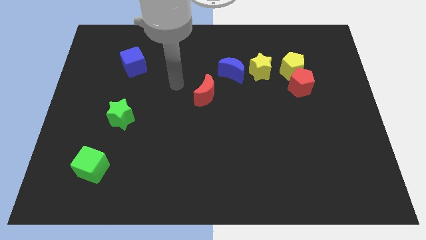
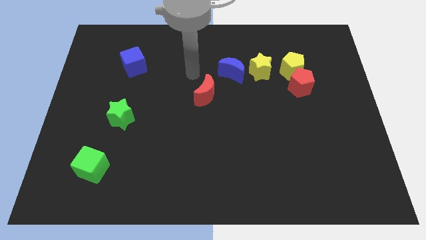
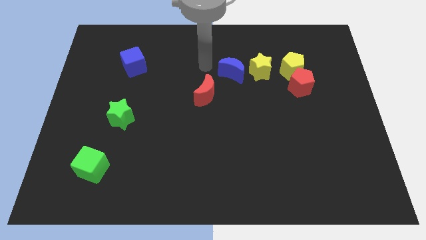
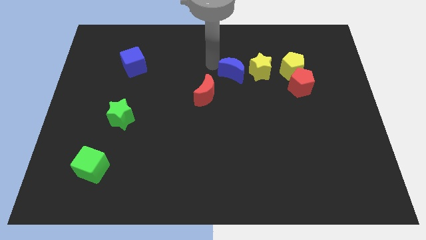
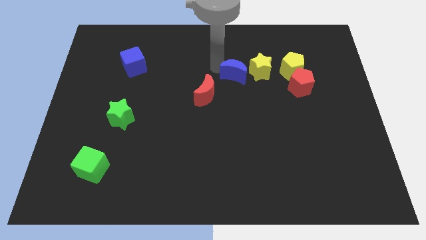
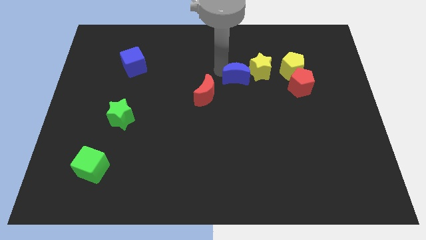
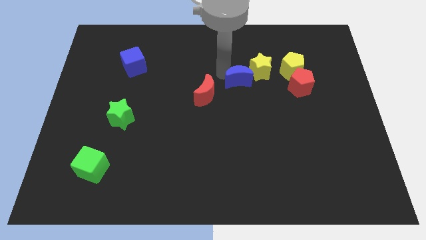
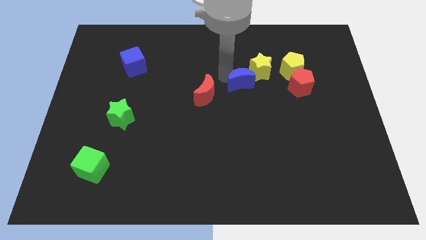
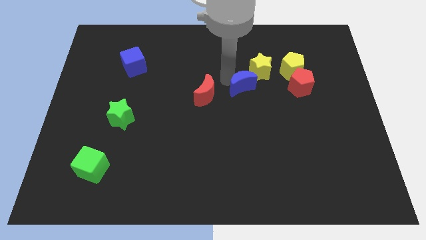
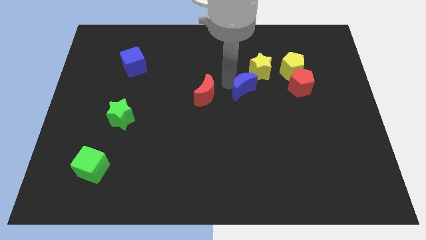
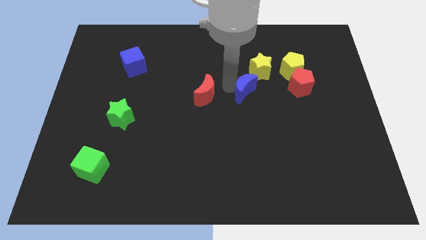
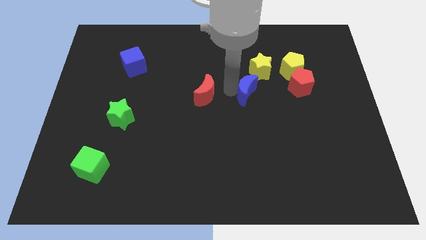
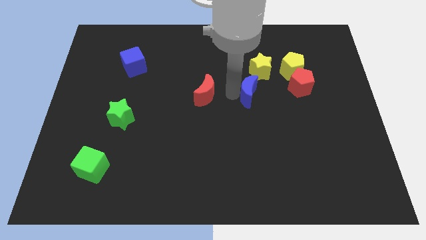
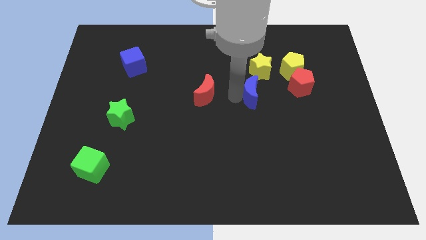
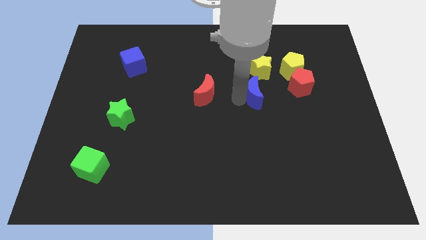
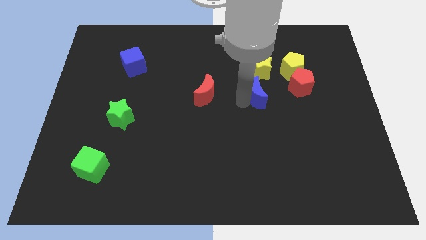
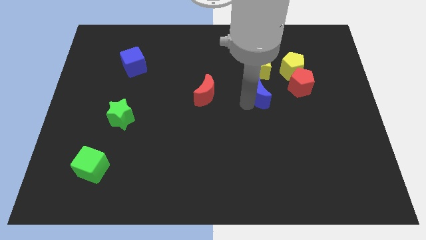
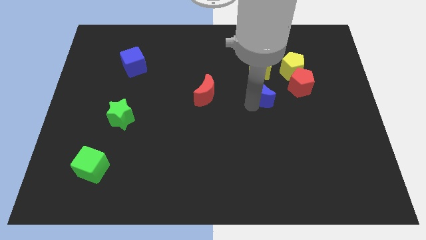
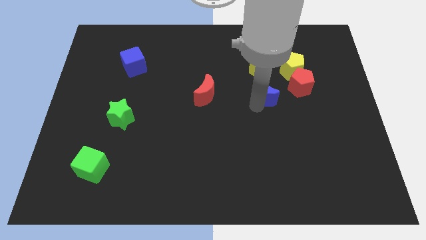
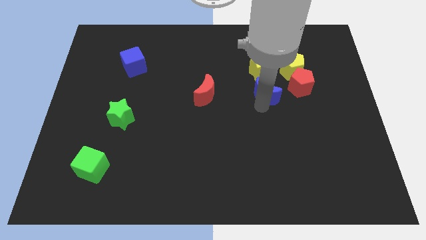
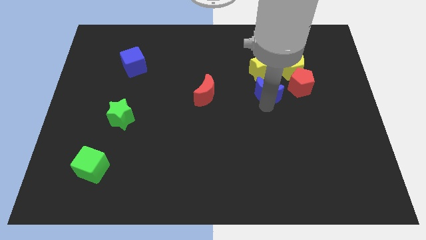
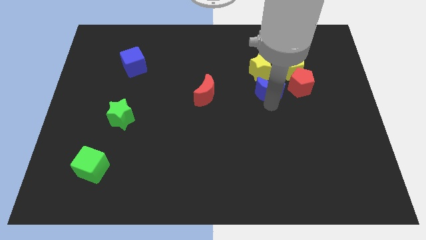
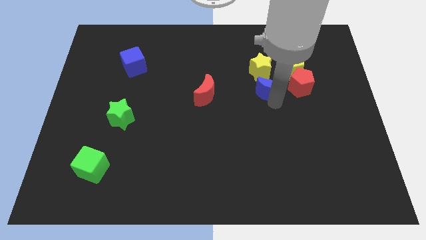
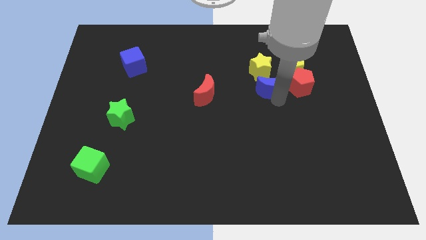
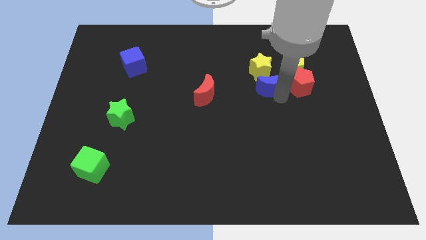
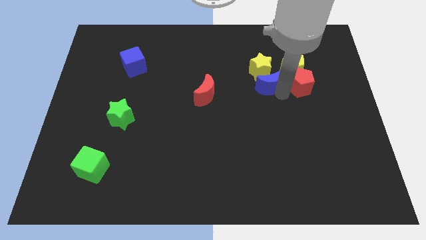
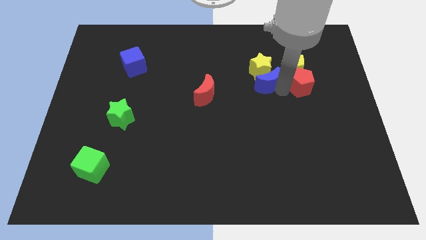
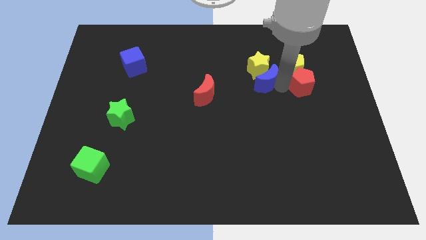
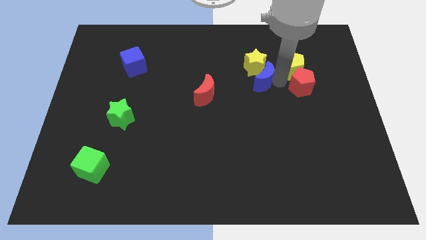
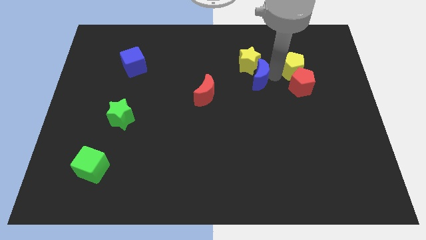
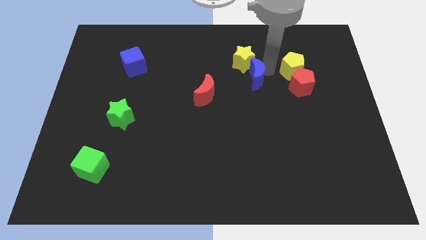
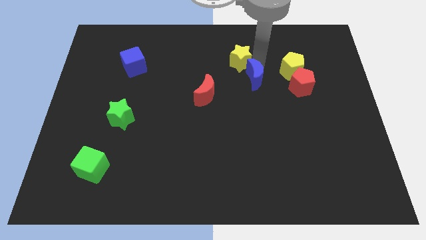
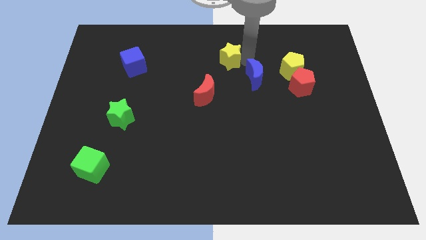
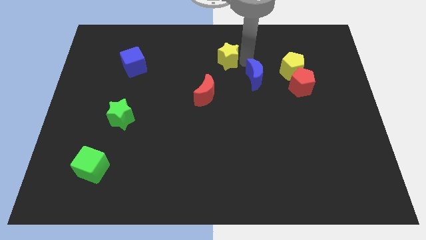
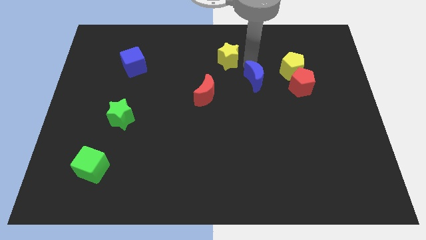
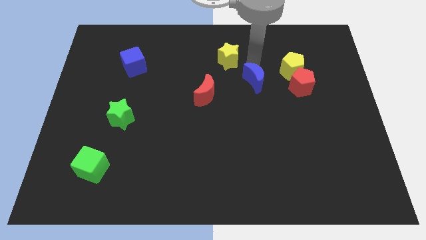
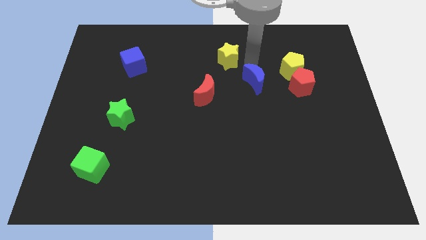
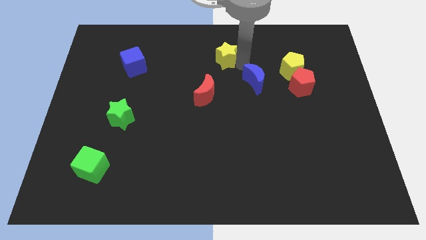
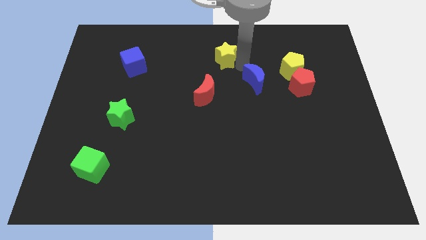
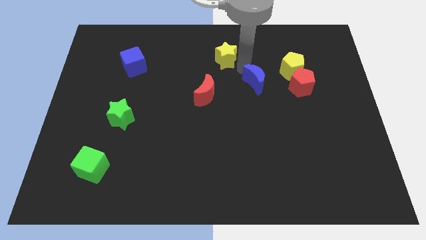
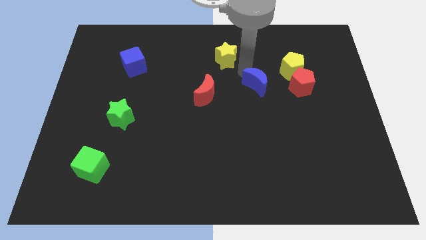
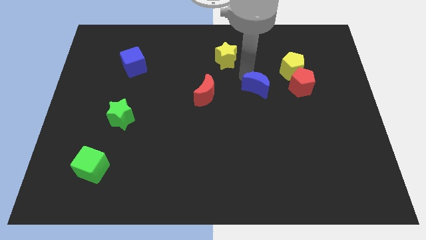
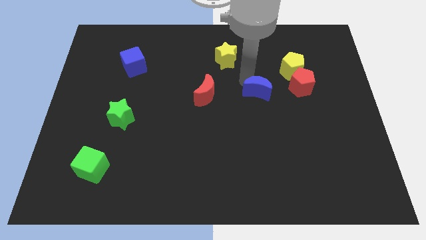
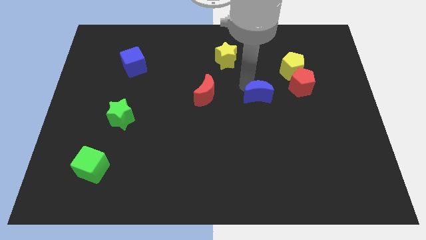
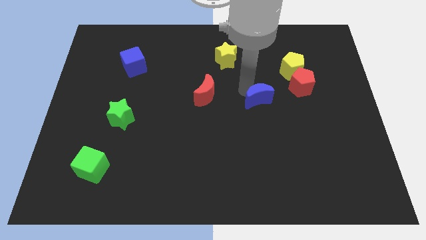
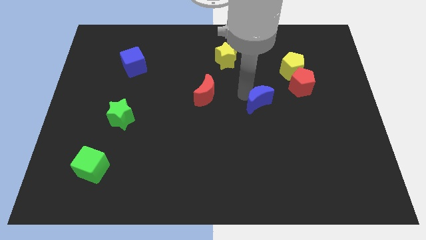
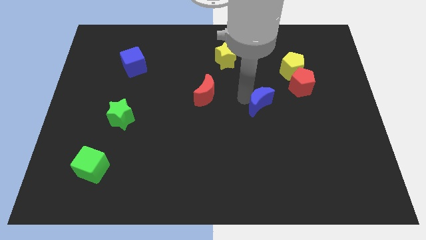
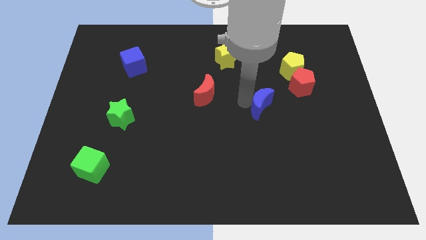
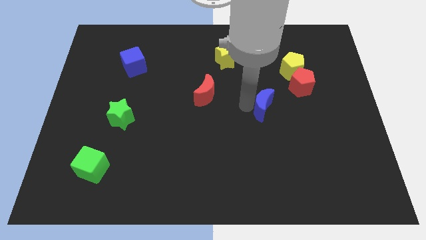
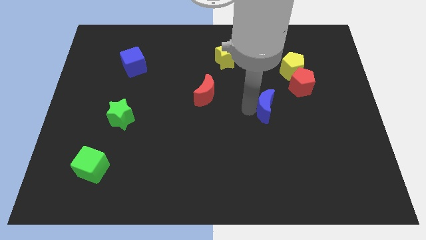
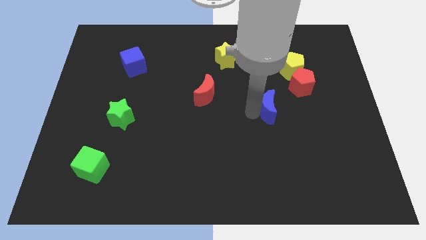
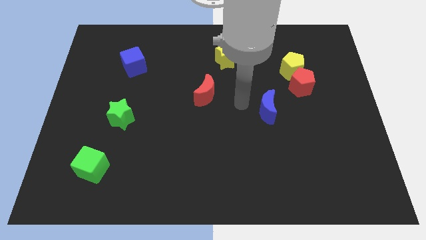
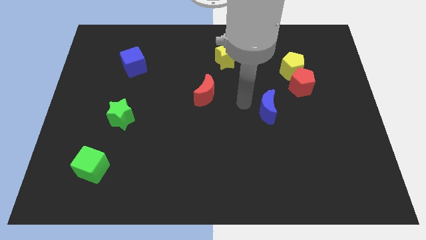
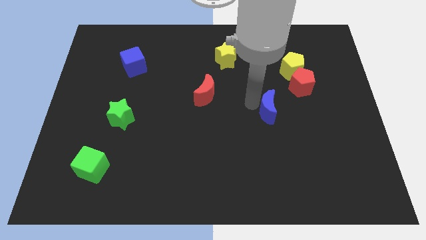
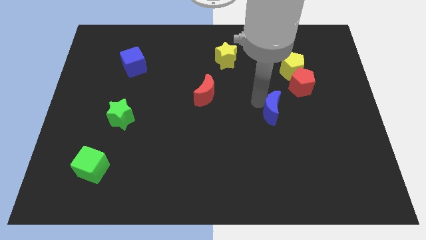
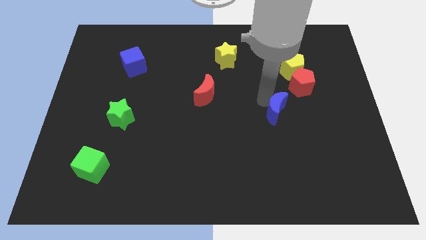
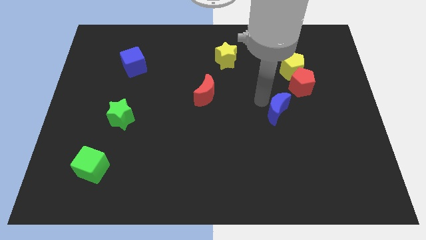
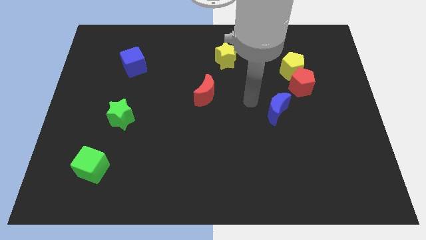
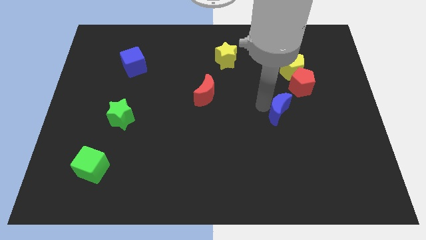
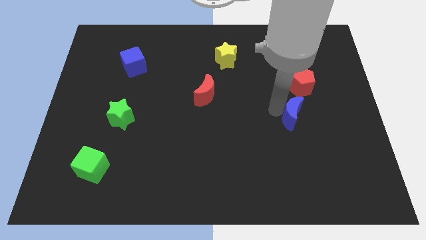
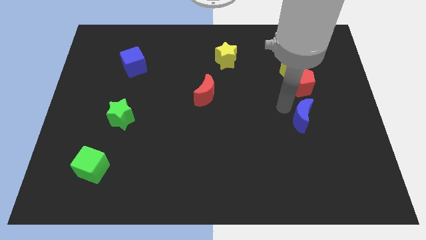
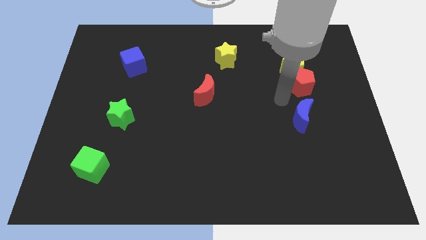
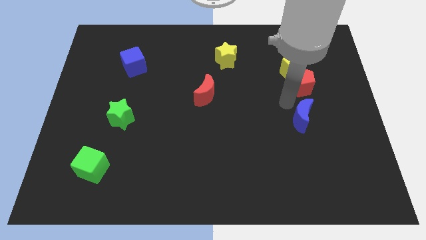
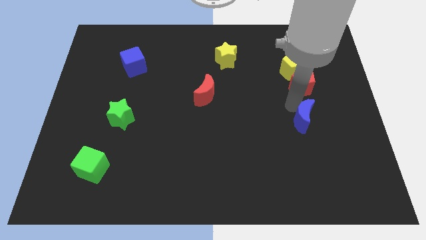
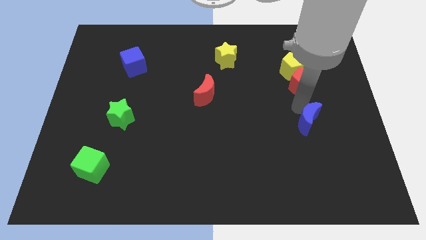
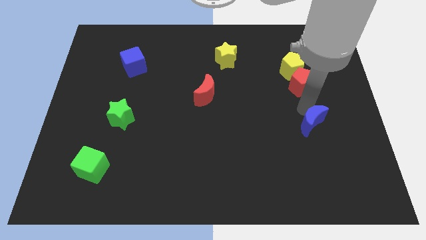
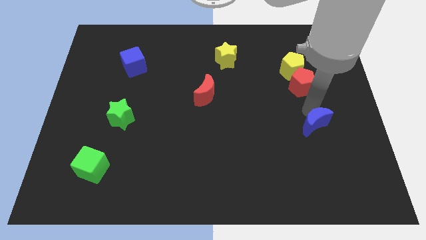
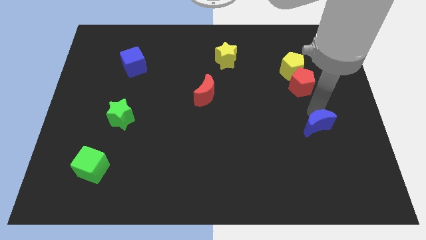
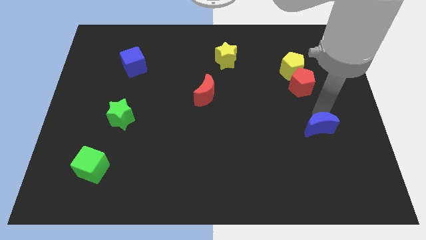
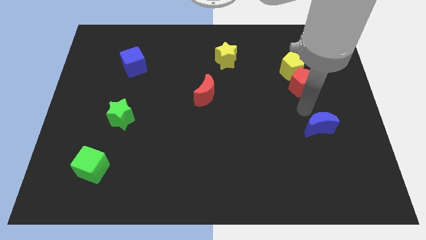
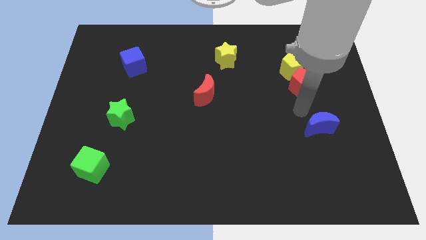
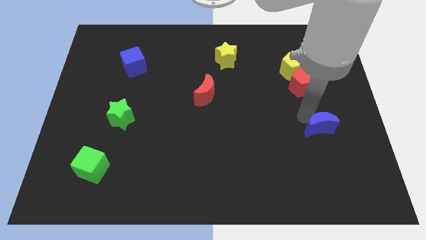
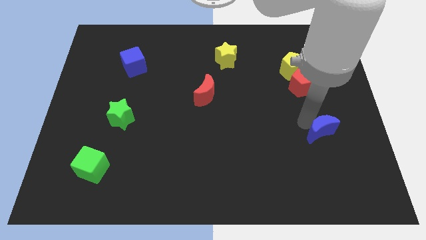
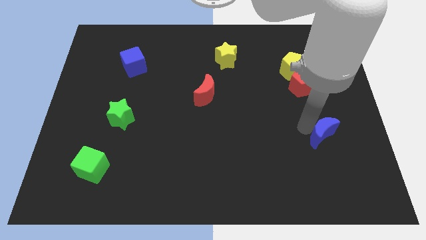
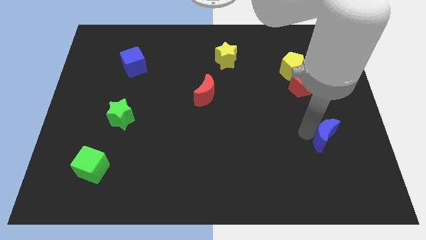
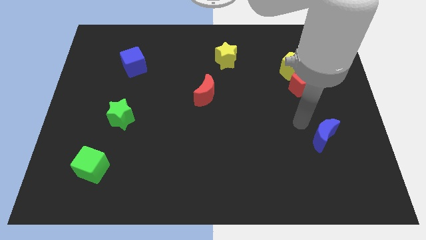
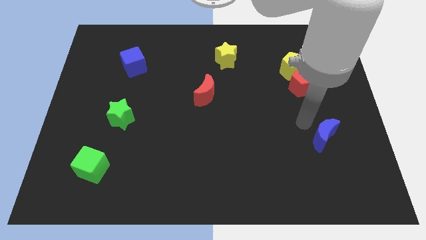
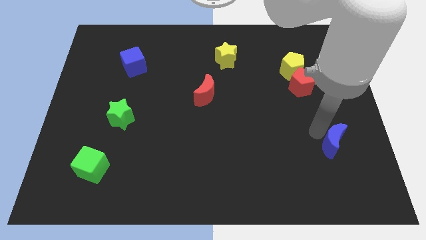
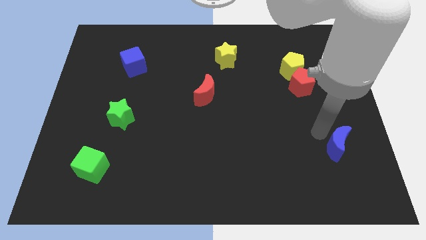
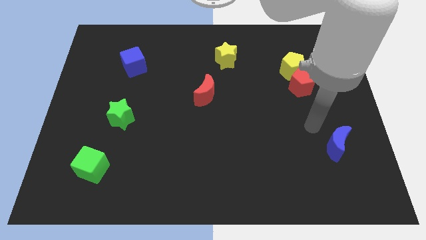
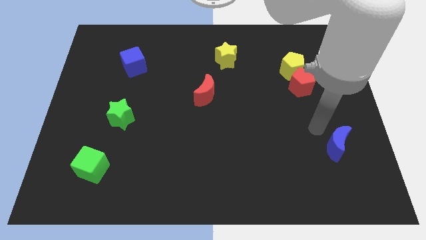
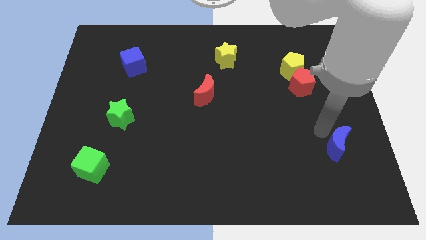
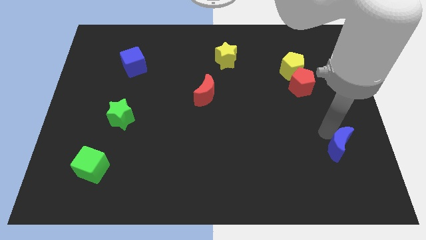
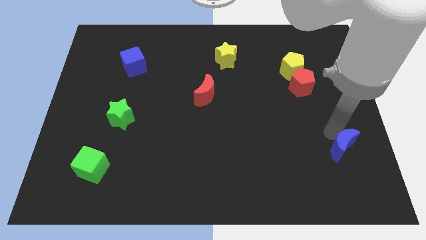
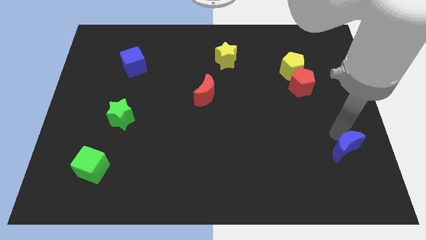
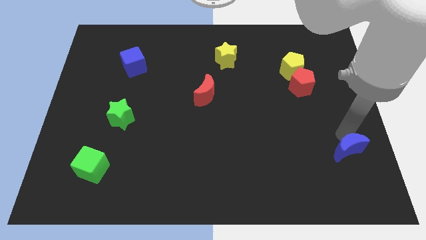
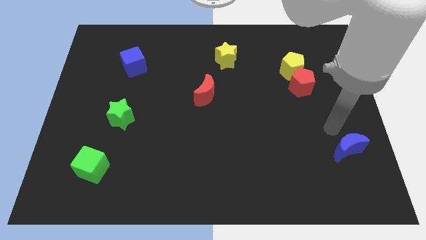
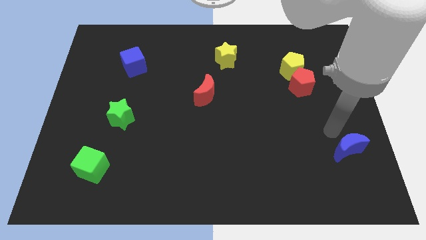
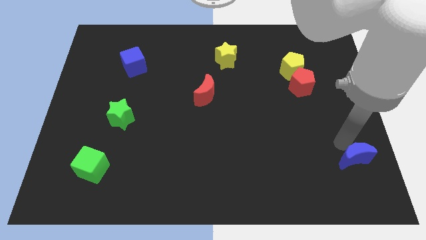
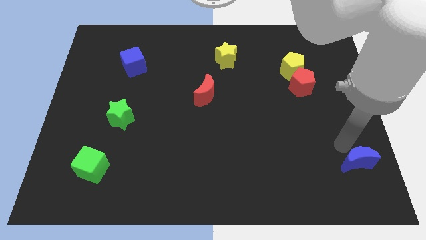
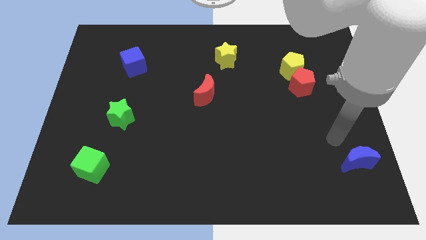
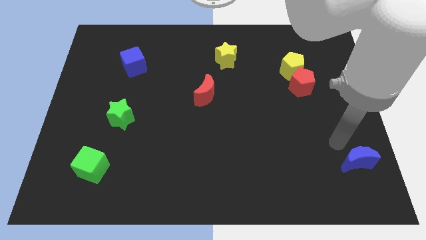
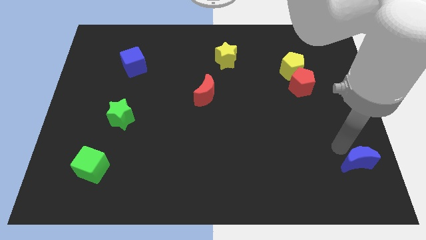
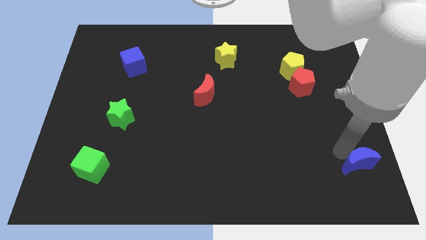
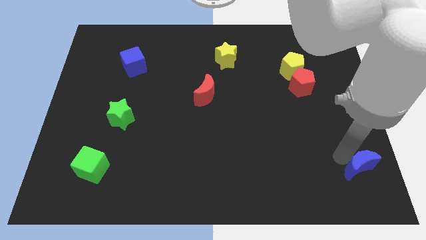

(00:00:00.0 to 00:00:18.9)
move the blue moon to the lower right corner
